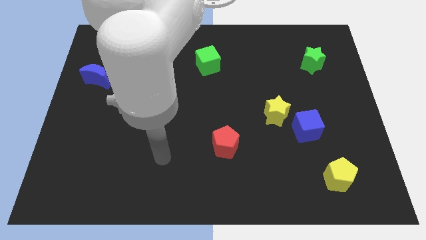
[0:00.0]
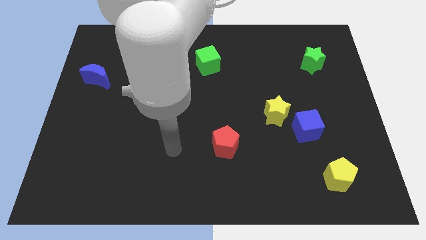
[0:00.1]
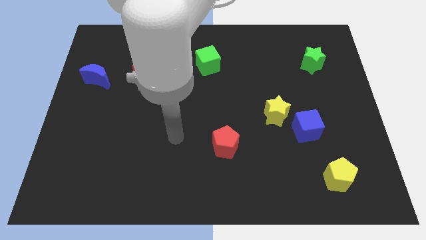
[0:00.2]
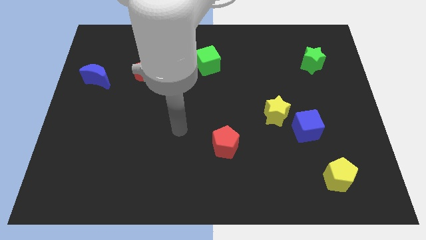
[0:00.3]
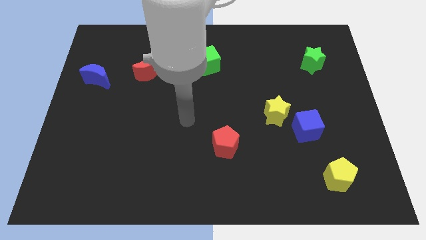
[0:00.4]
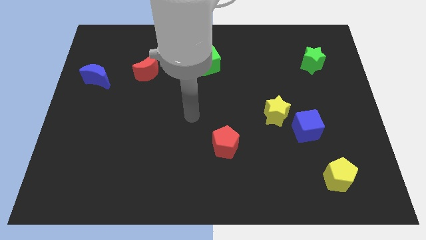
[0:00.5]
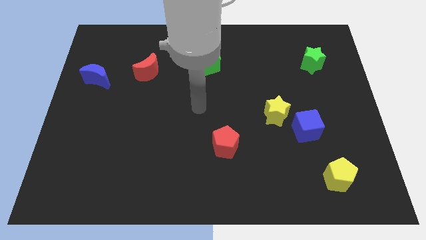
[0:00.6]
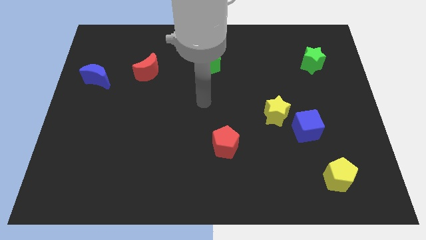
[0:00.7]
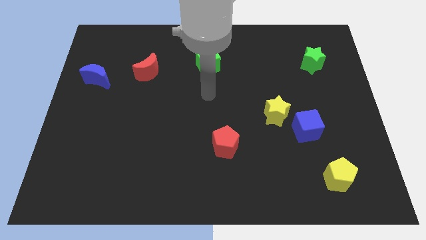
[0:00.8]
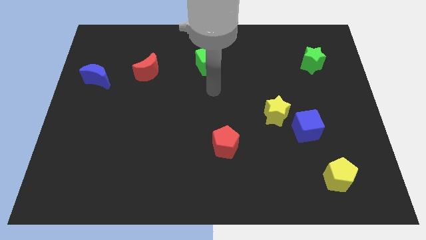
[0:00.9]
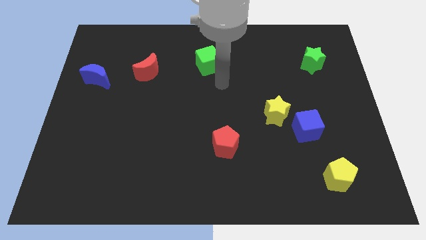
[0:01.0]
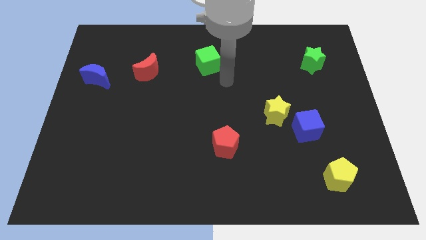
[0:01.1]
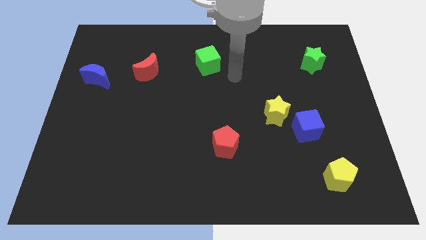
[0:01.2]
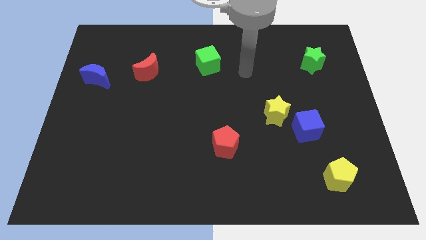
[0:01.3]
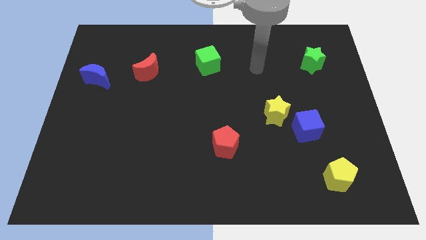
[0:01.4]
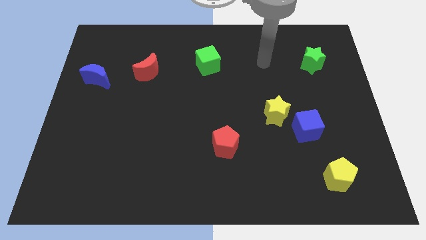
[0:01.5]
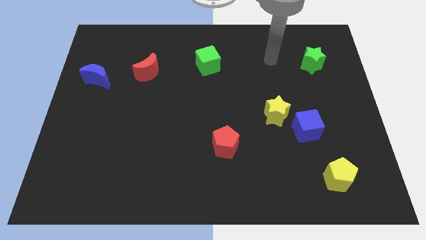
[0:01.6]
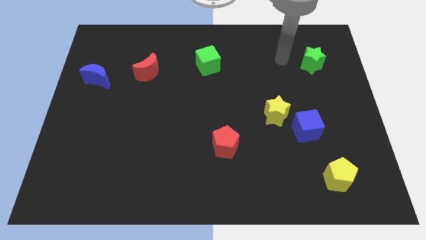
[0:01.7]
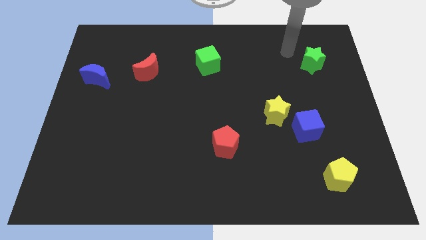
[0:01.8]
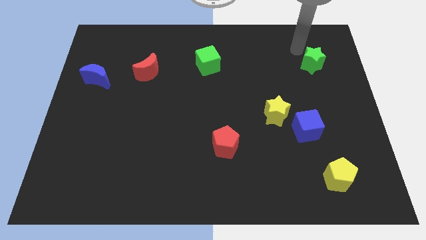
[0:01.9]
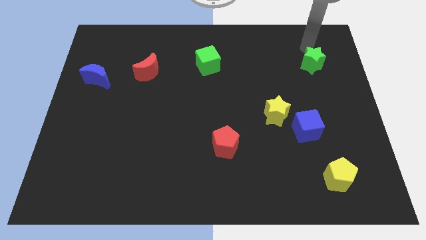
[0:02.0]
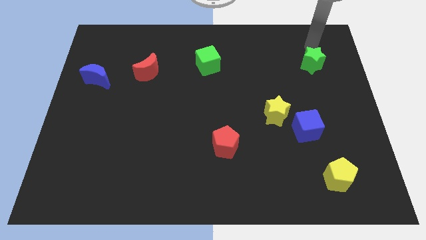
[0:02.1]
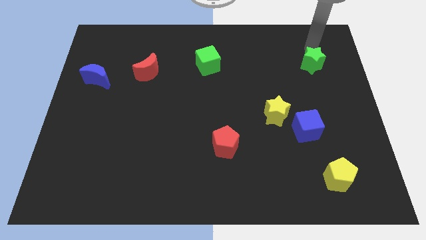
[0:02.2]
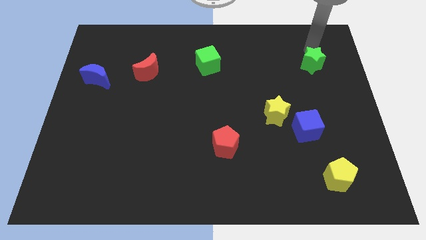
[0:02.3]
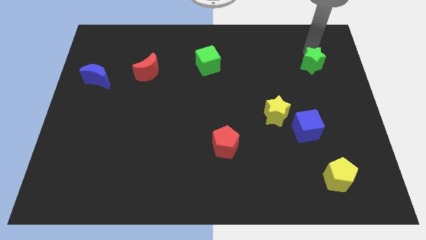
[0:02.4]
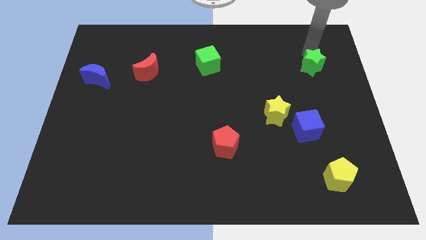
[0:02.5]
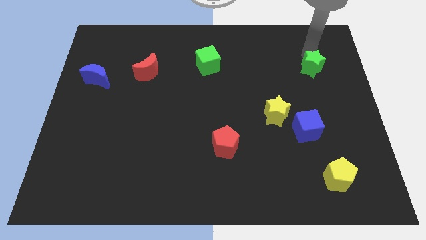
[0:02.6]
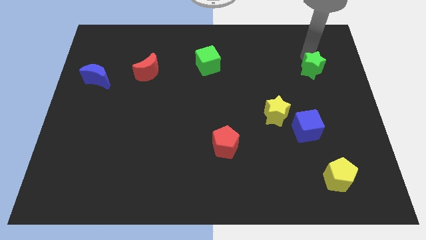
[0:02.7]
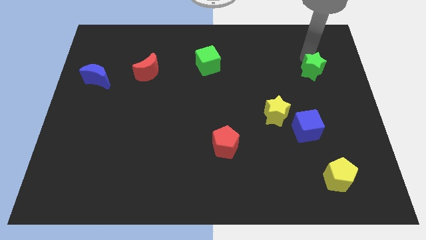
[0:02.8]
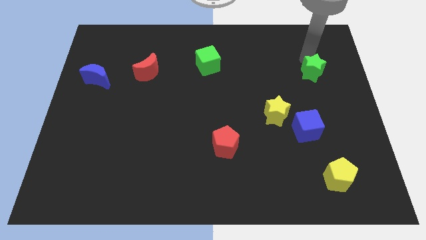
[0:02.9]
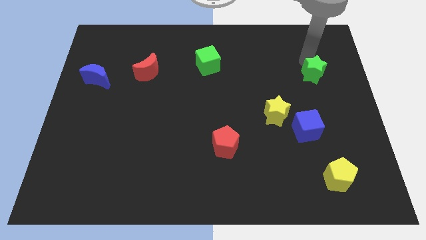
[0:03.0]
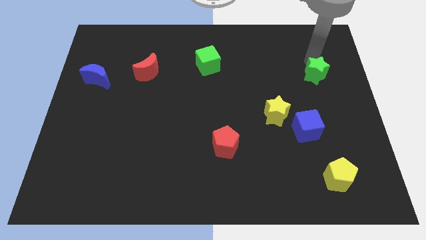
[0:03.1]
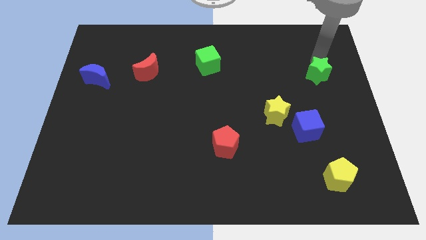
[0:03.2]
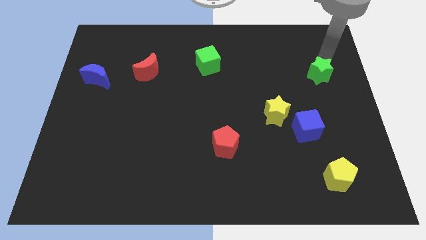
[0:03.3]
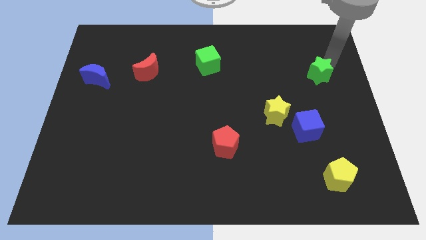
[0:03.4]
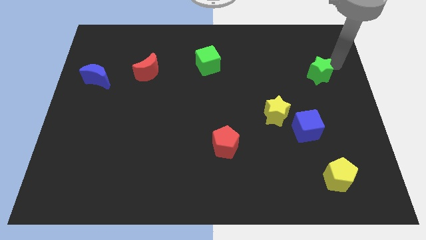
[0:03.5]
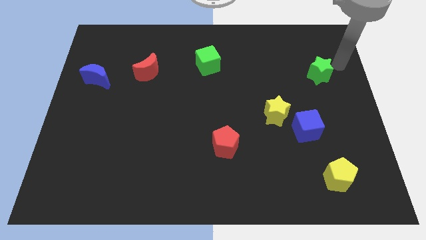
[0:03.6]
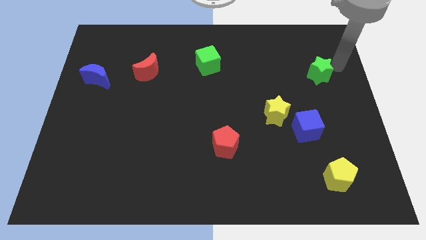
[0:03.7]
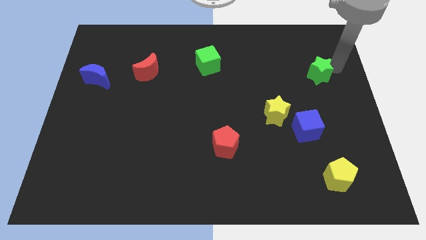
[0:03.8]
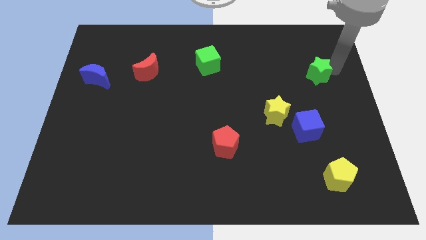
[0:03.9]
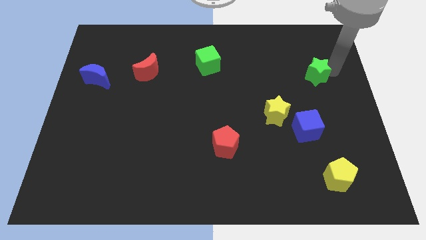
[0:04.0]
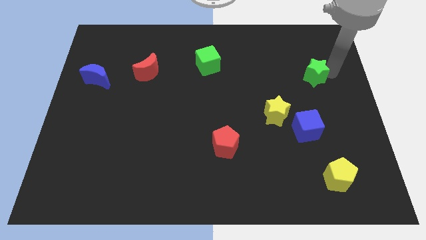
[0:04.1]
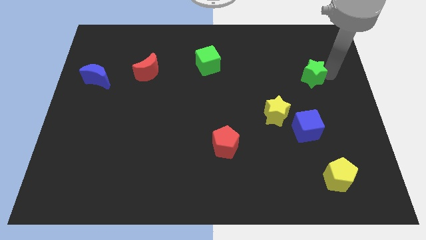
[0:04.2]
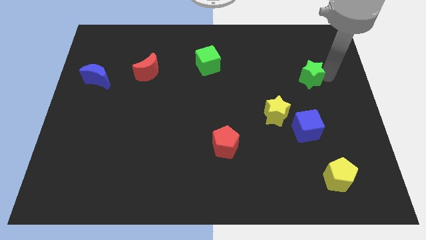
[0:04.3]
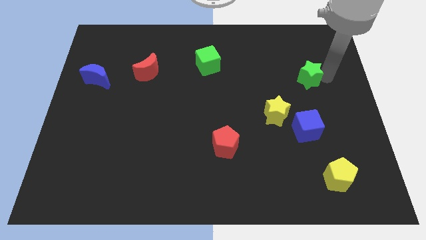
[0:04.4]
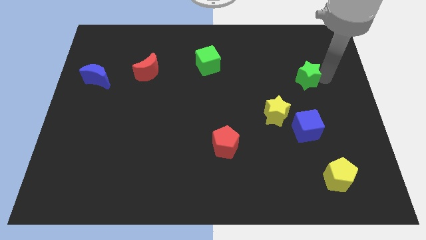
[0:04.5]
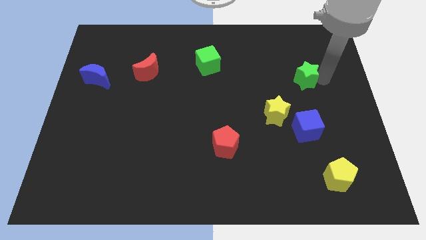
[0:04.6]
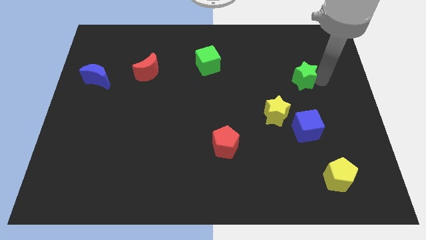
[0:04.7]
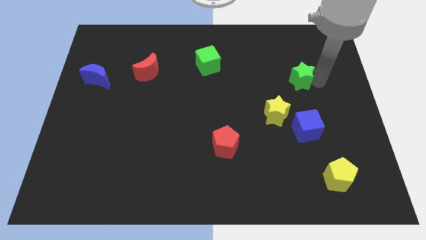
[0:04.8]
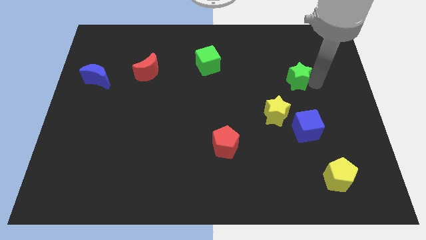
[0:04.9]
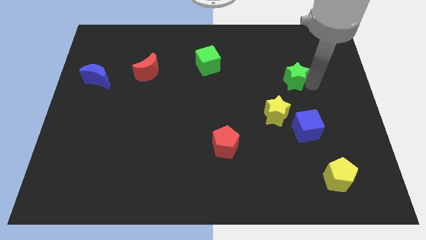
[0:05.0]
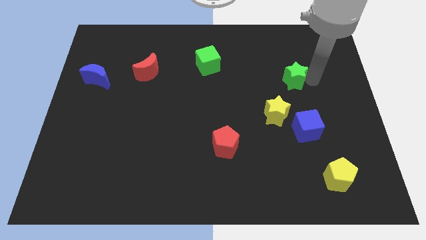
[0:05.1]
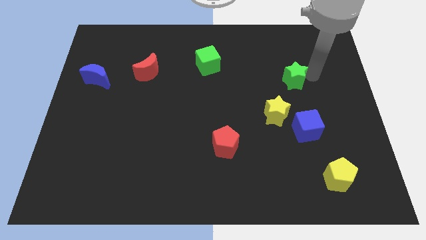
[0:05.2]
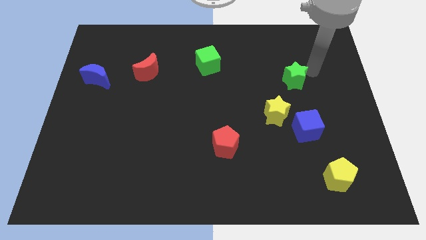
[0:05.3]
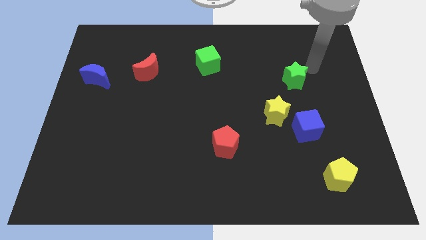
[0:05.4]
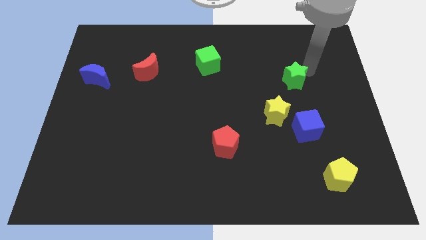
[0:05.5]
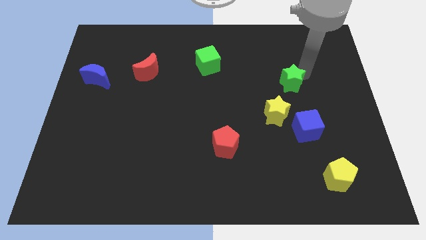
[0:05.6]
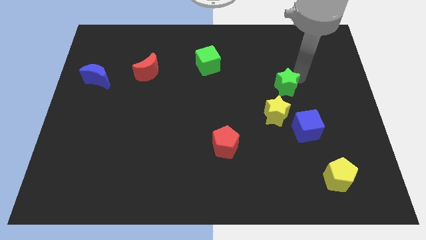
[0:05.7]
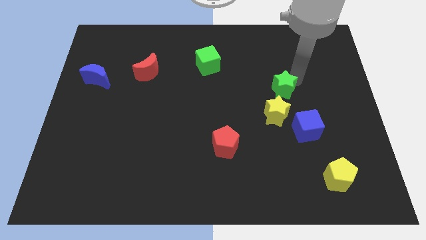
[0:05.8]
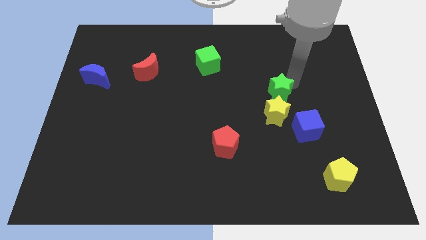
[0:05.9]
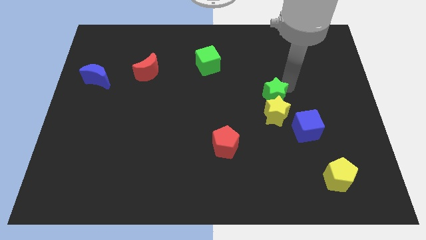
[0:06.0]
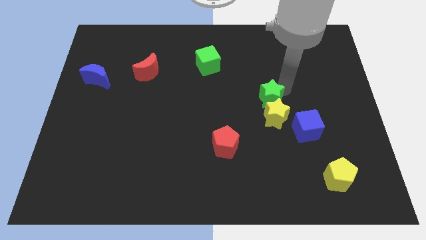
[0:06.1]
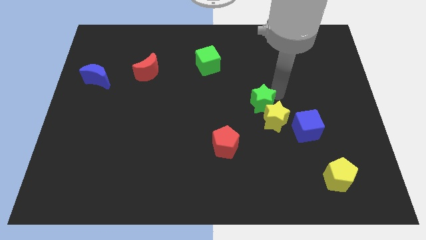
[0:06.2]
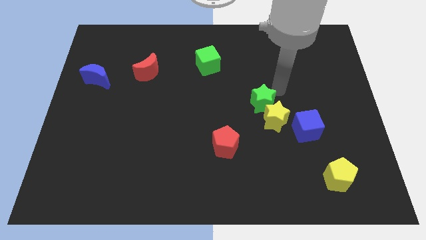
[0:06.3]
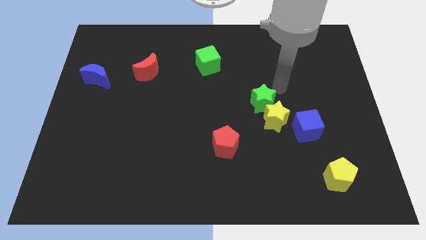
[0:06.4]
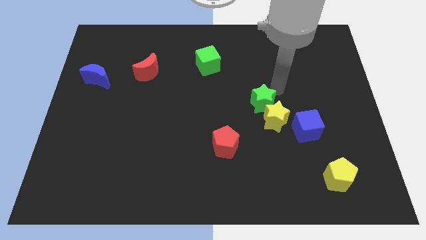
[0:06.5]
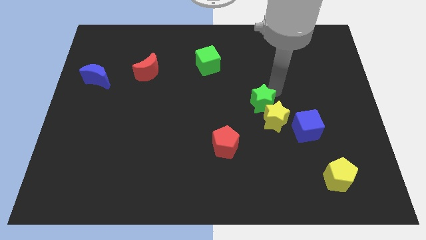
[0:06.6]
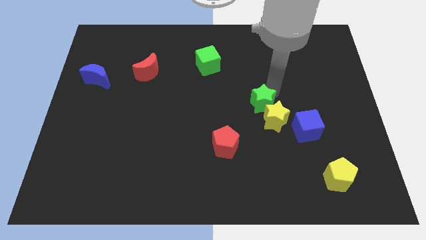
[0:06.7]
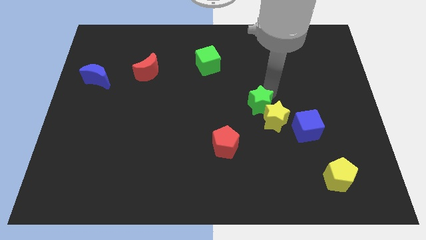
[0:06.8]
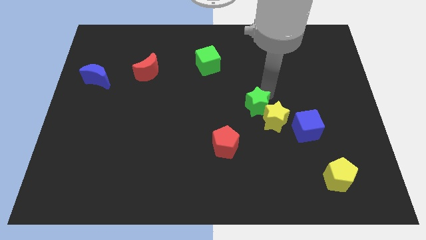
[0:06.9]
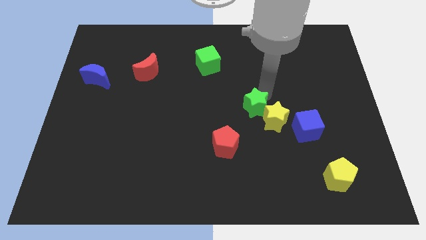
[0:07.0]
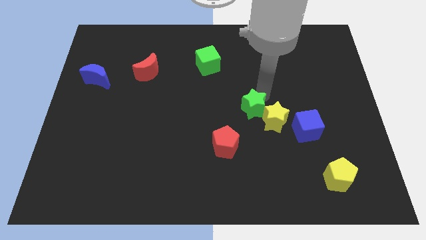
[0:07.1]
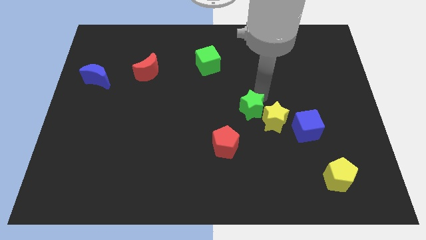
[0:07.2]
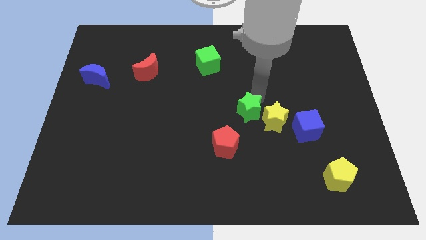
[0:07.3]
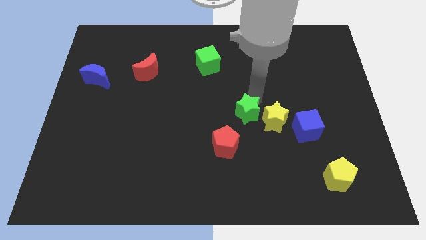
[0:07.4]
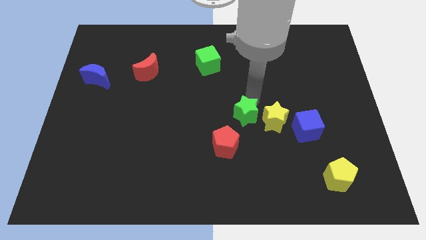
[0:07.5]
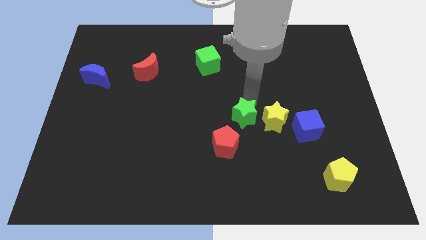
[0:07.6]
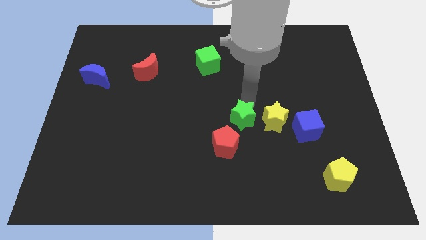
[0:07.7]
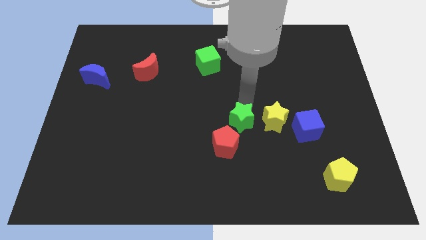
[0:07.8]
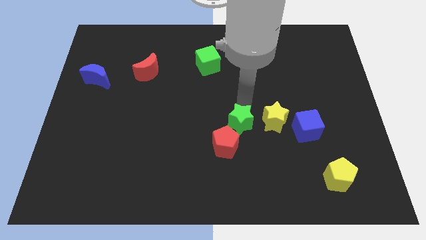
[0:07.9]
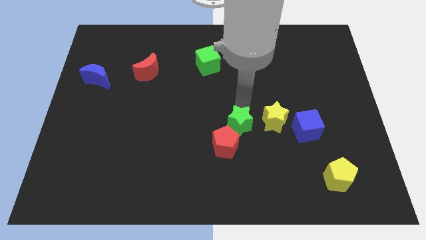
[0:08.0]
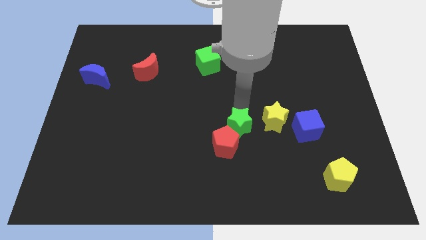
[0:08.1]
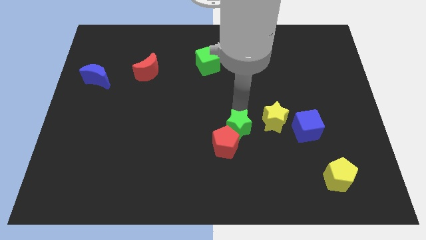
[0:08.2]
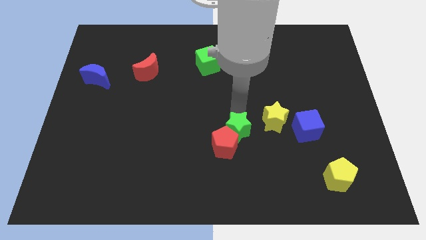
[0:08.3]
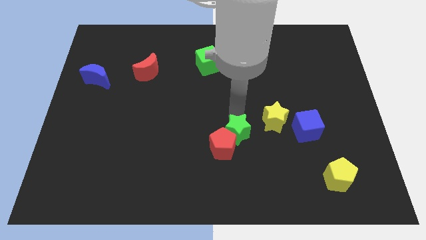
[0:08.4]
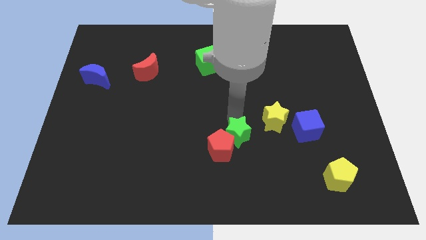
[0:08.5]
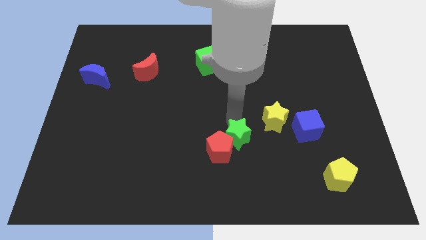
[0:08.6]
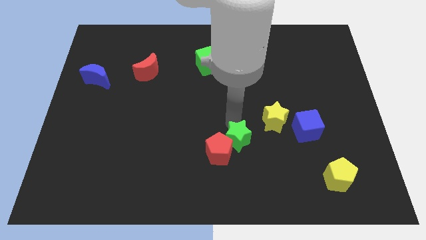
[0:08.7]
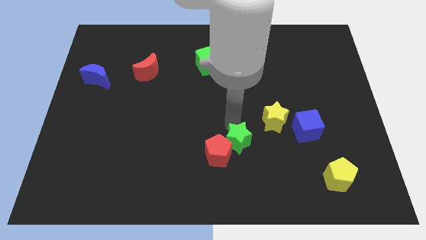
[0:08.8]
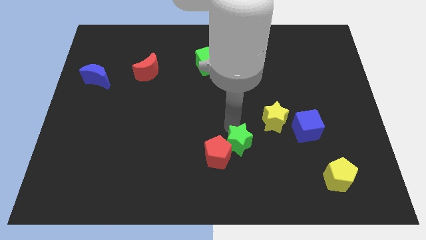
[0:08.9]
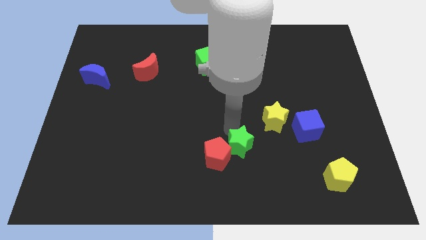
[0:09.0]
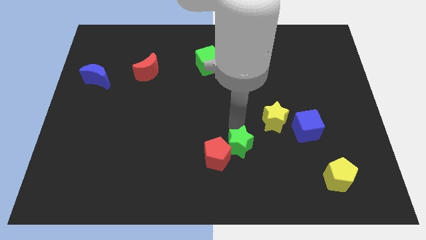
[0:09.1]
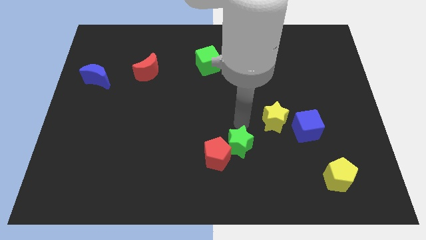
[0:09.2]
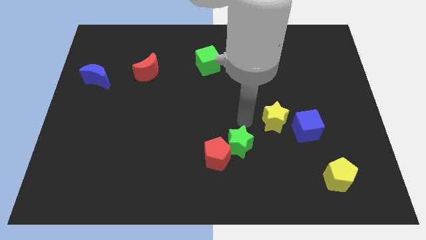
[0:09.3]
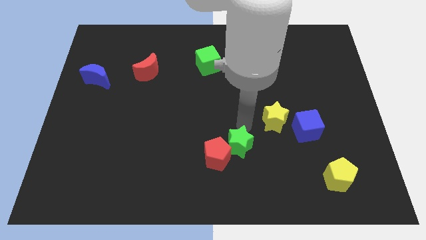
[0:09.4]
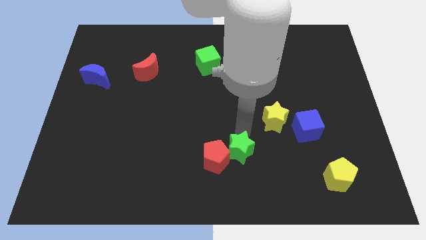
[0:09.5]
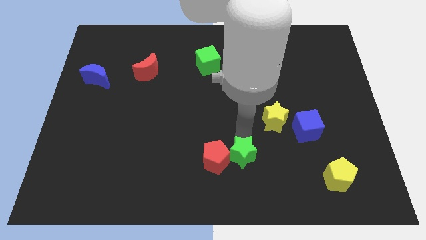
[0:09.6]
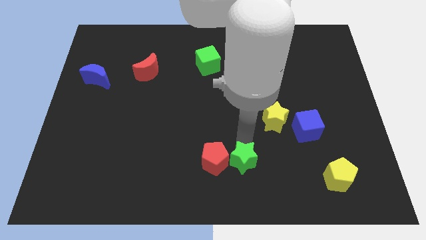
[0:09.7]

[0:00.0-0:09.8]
move the green star to the bottom side
